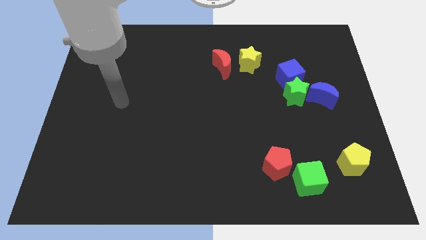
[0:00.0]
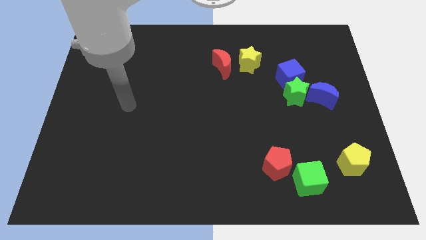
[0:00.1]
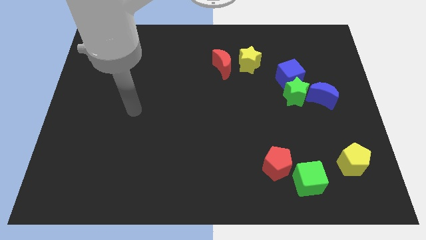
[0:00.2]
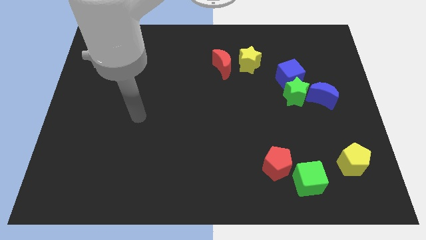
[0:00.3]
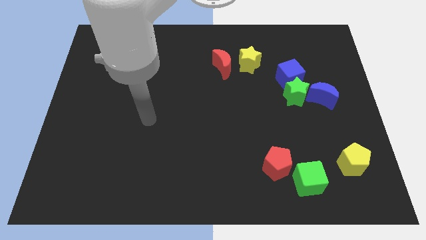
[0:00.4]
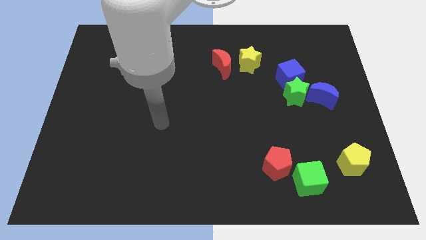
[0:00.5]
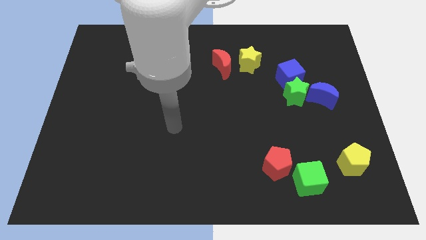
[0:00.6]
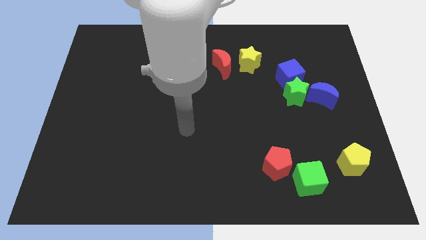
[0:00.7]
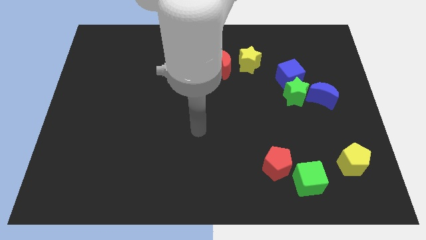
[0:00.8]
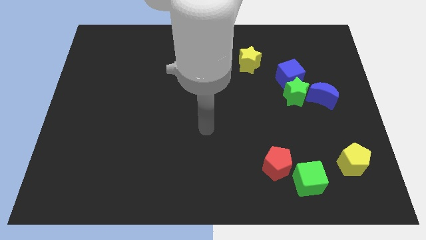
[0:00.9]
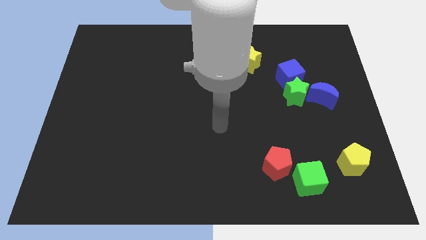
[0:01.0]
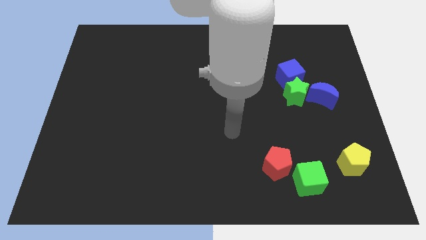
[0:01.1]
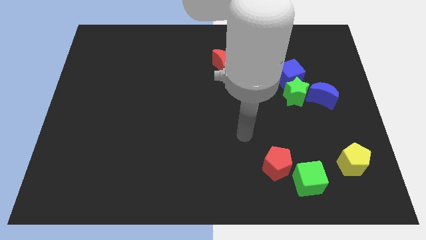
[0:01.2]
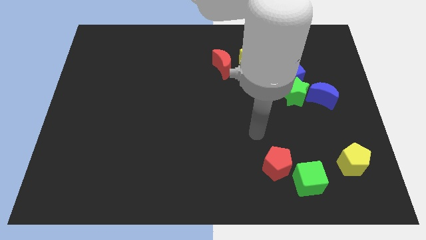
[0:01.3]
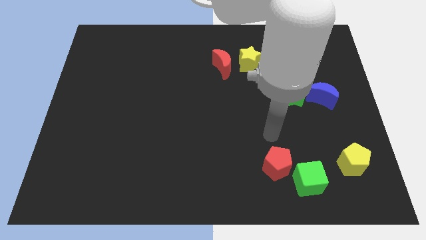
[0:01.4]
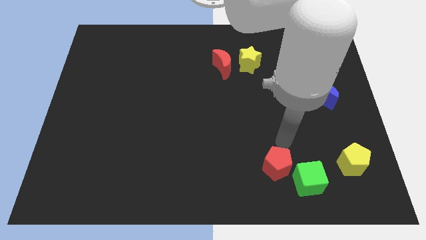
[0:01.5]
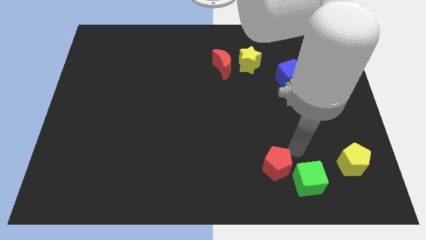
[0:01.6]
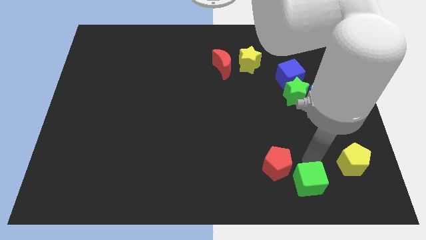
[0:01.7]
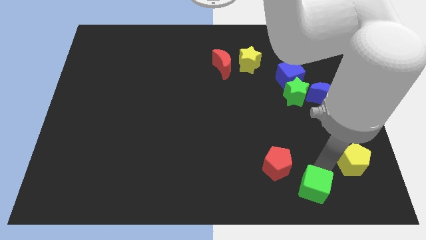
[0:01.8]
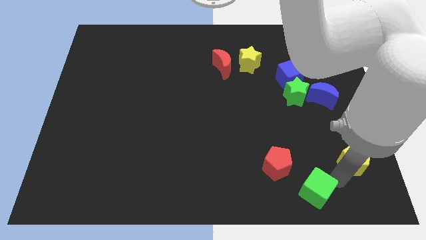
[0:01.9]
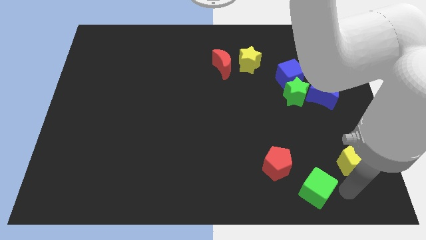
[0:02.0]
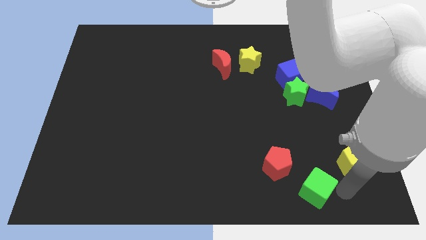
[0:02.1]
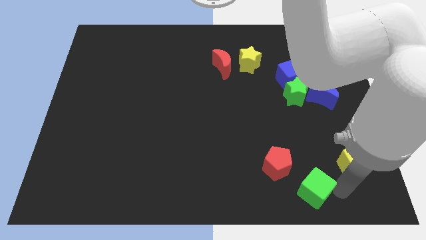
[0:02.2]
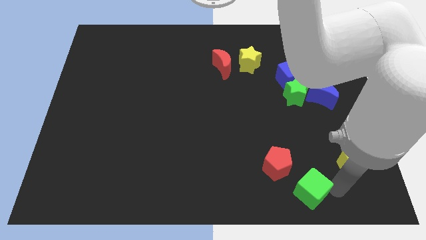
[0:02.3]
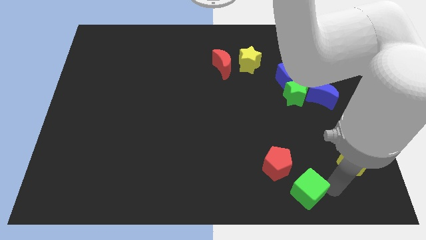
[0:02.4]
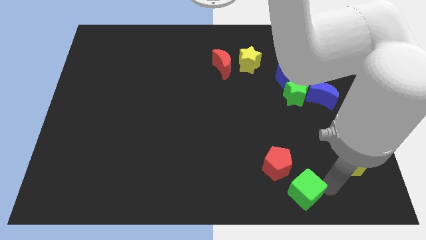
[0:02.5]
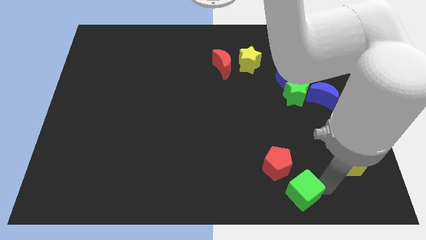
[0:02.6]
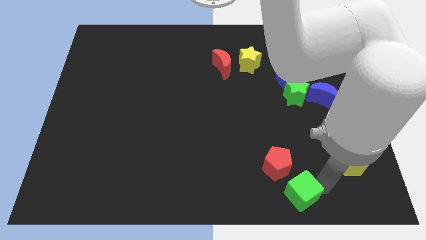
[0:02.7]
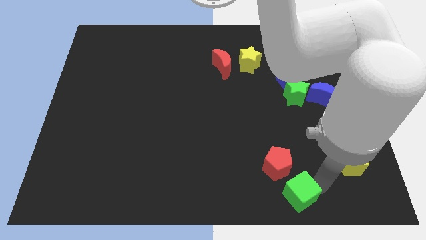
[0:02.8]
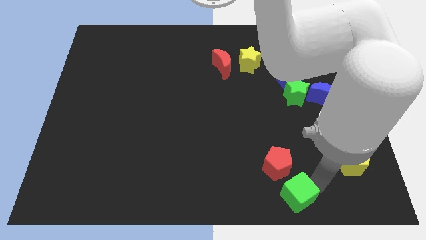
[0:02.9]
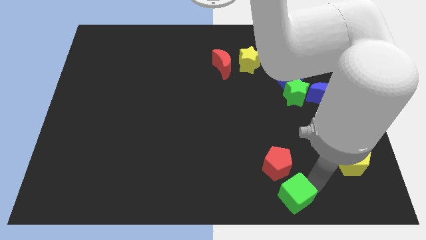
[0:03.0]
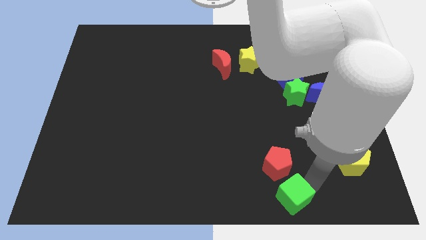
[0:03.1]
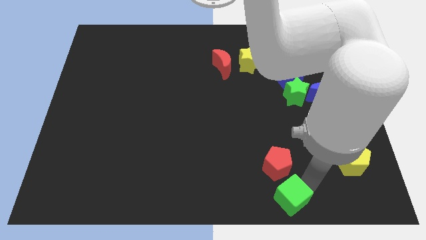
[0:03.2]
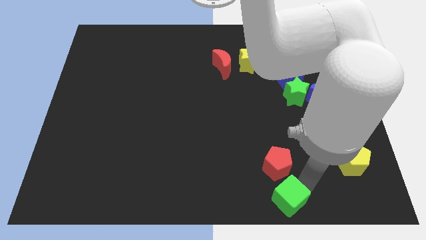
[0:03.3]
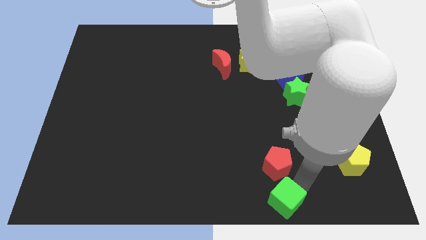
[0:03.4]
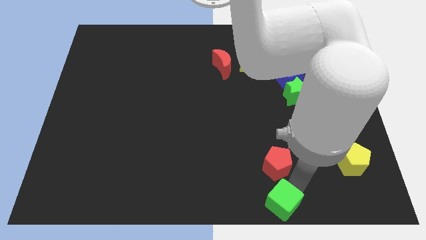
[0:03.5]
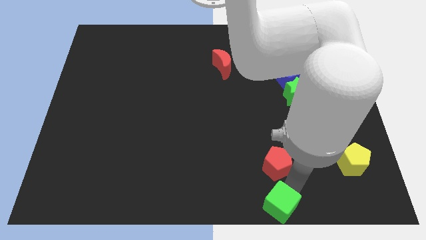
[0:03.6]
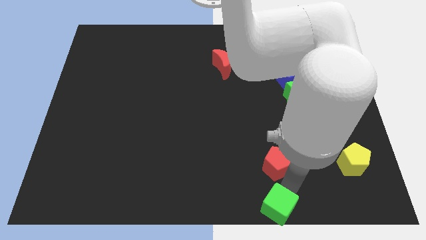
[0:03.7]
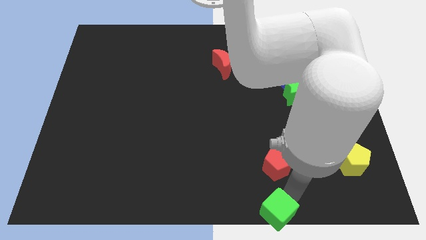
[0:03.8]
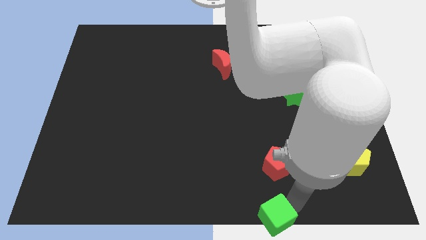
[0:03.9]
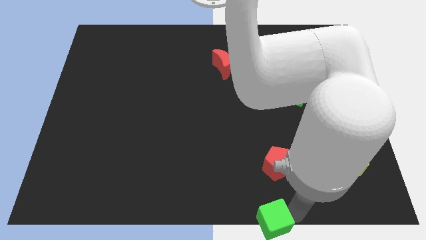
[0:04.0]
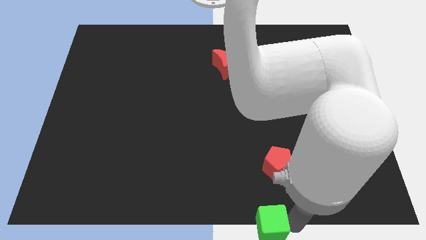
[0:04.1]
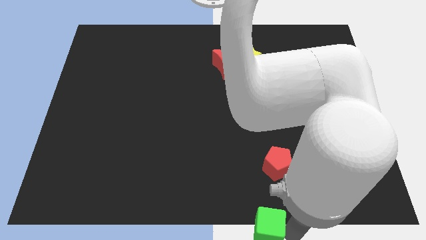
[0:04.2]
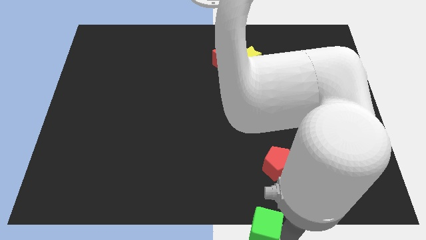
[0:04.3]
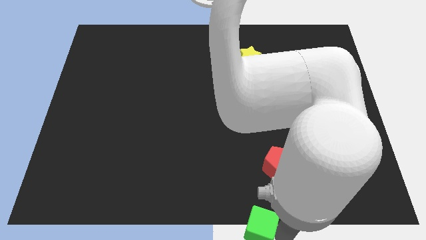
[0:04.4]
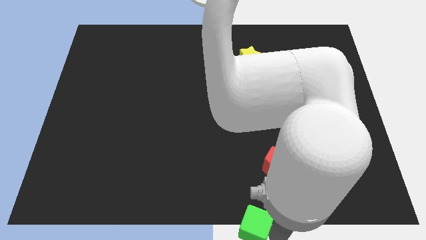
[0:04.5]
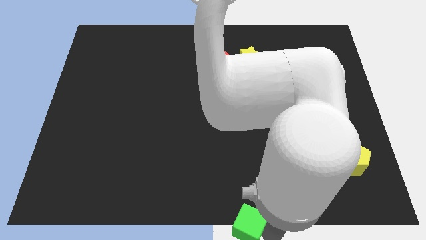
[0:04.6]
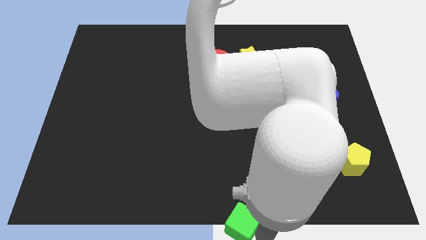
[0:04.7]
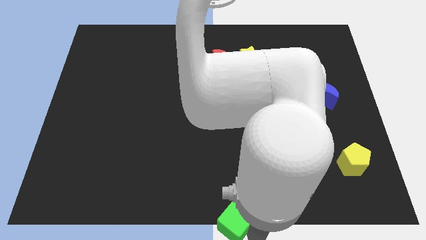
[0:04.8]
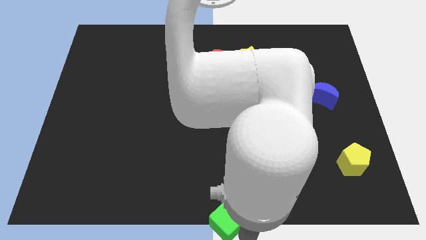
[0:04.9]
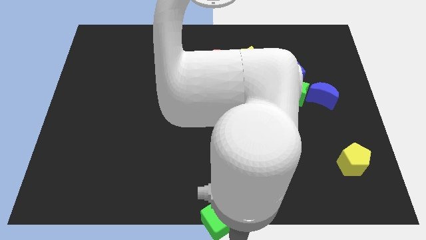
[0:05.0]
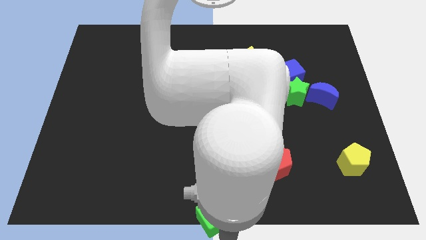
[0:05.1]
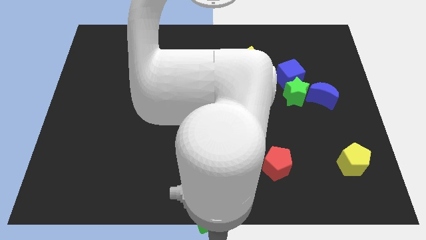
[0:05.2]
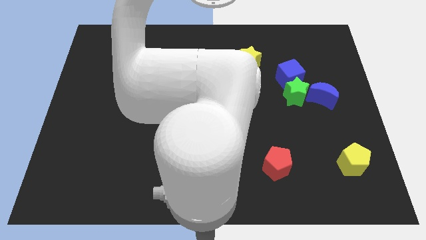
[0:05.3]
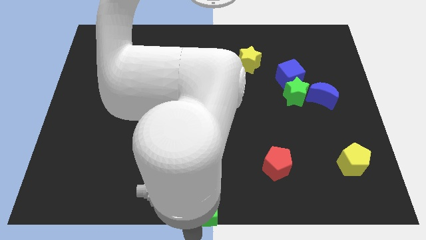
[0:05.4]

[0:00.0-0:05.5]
move the green cube left

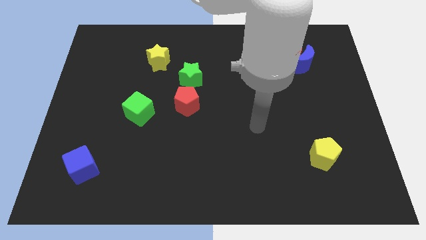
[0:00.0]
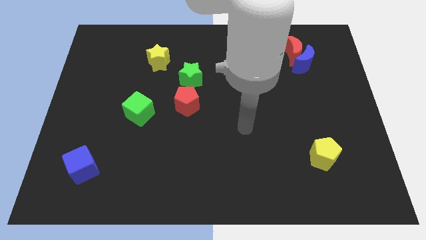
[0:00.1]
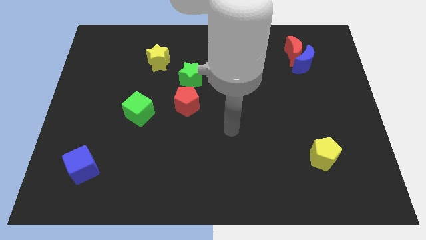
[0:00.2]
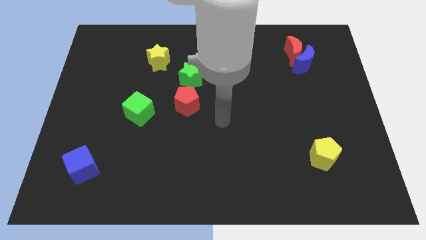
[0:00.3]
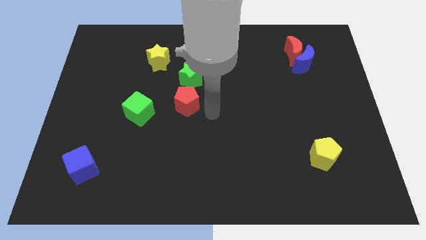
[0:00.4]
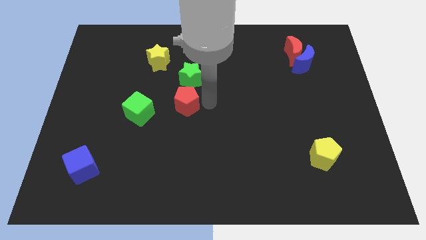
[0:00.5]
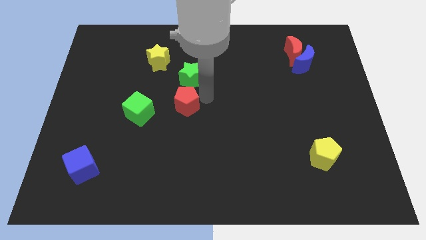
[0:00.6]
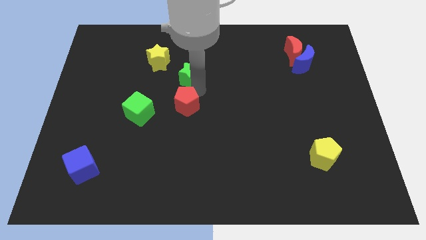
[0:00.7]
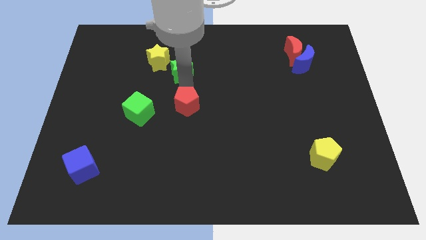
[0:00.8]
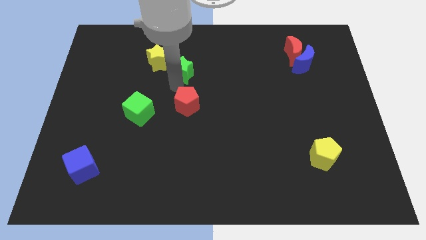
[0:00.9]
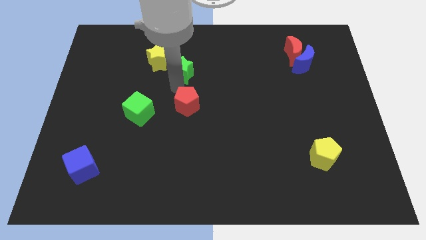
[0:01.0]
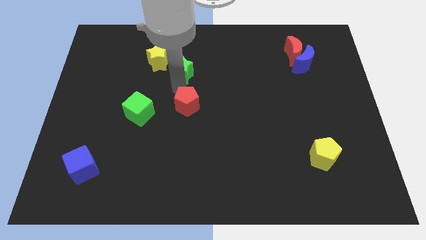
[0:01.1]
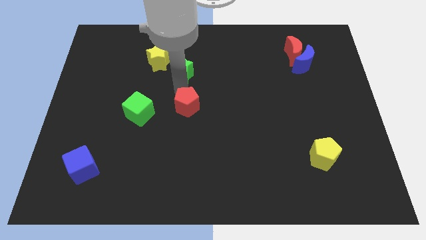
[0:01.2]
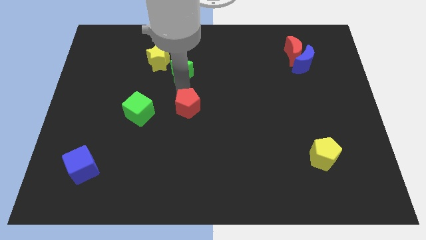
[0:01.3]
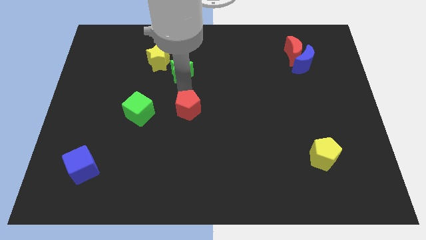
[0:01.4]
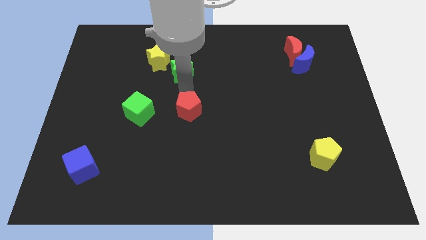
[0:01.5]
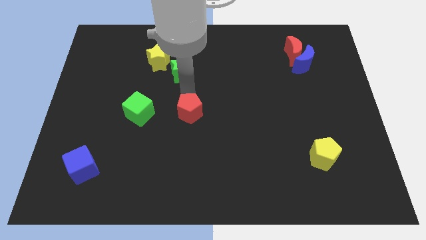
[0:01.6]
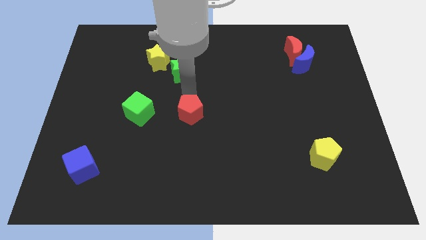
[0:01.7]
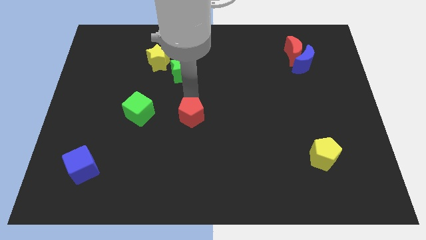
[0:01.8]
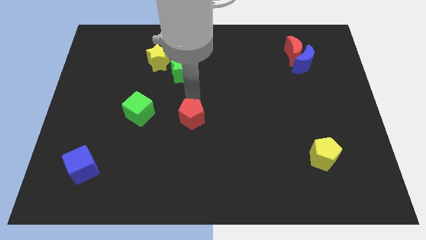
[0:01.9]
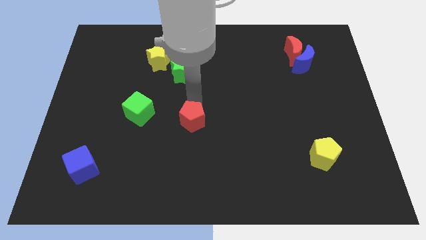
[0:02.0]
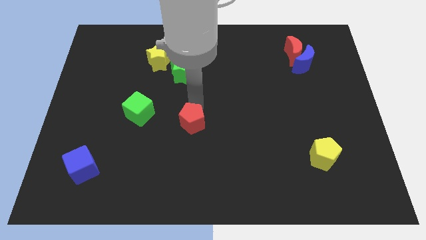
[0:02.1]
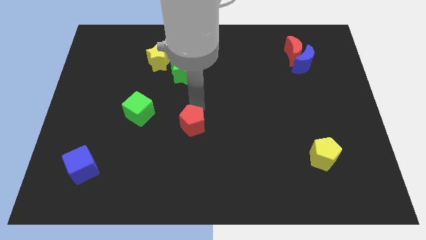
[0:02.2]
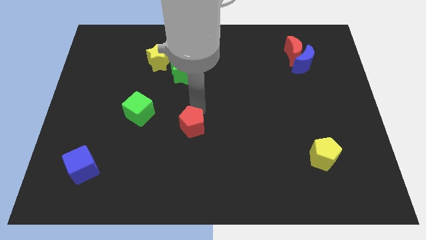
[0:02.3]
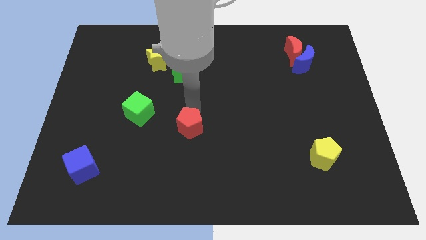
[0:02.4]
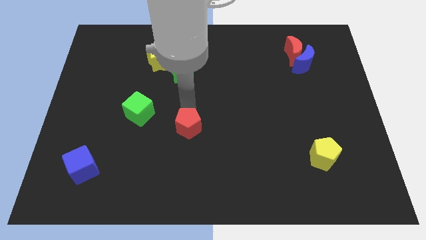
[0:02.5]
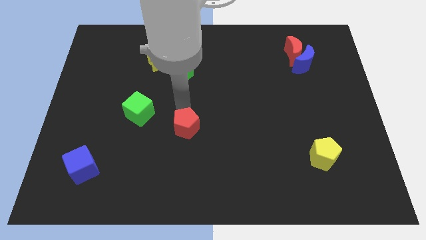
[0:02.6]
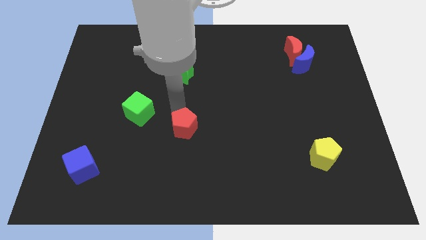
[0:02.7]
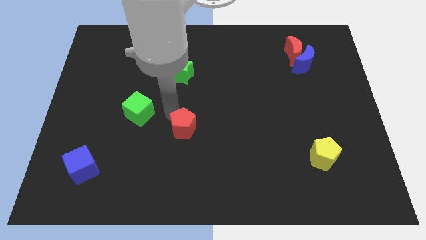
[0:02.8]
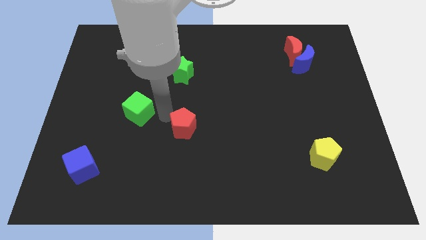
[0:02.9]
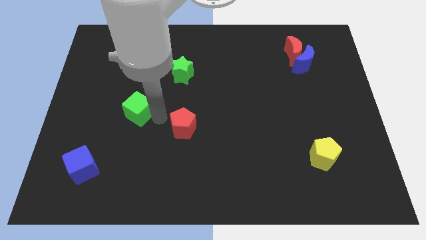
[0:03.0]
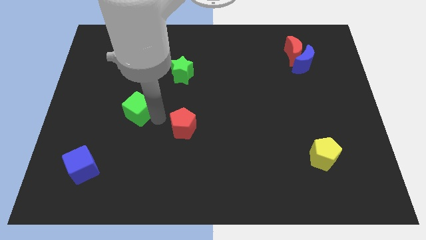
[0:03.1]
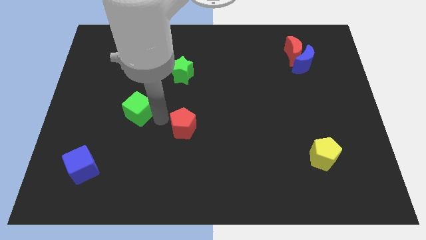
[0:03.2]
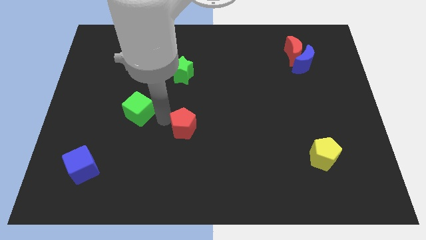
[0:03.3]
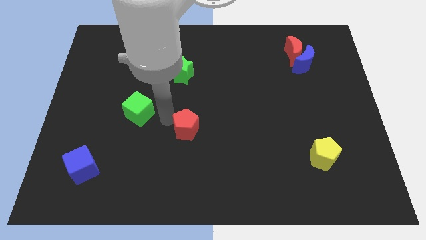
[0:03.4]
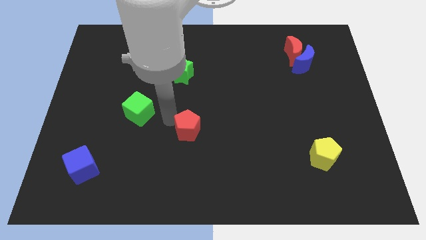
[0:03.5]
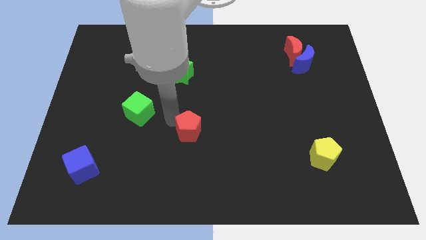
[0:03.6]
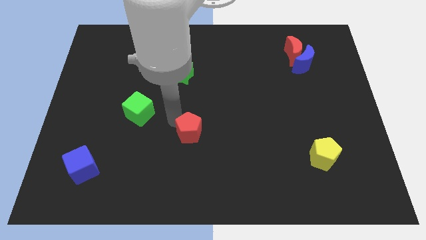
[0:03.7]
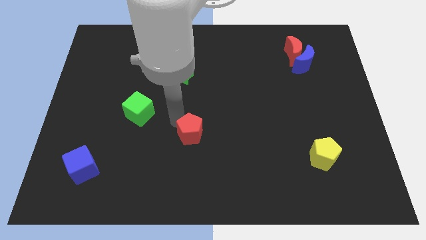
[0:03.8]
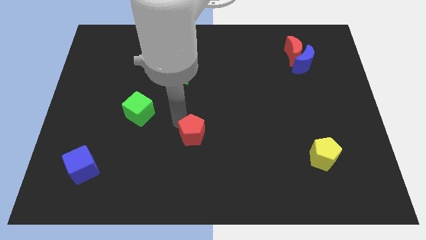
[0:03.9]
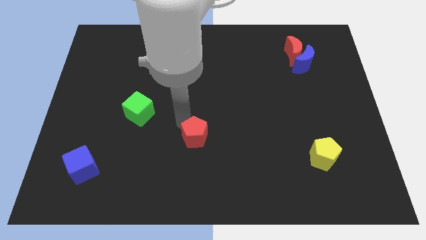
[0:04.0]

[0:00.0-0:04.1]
slightly slide the red pentagon downwards and right
